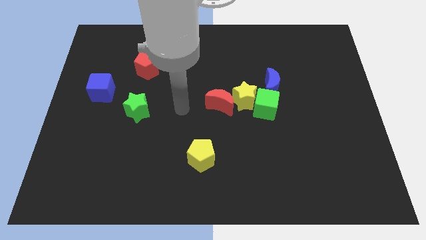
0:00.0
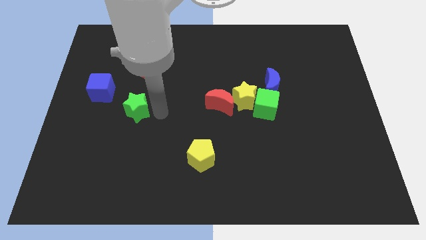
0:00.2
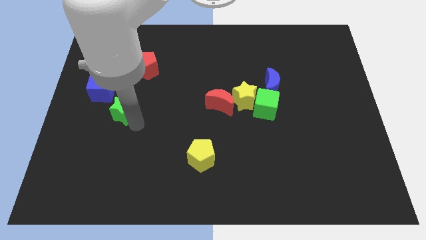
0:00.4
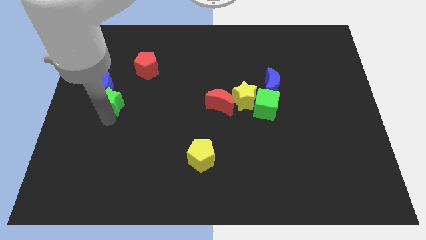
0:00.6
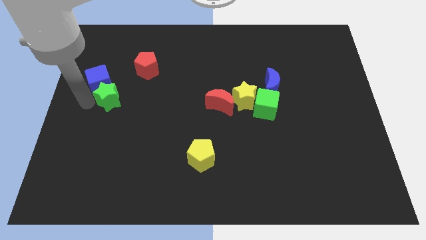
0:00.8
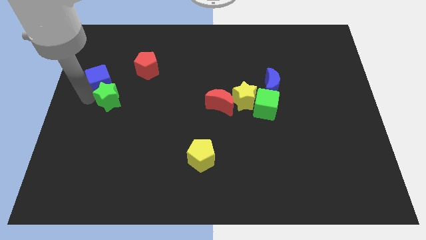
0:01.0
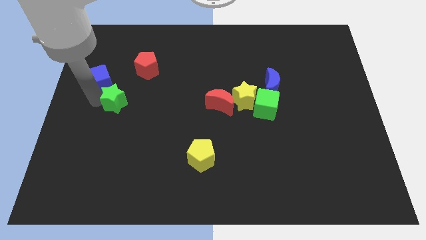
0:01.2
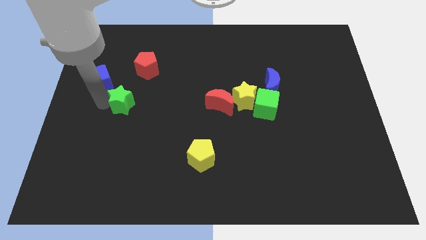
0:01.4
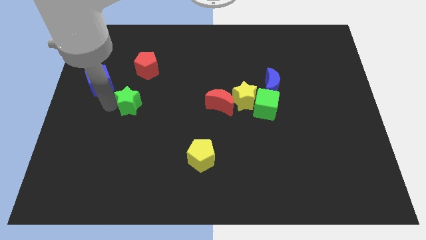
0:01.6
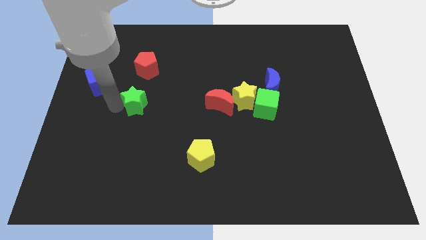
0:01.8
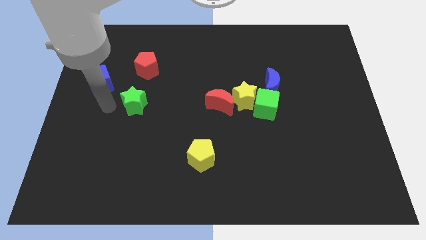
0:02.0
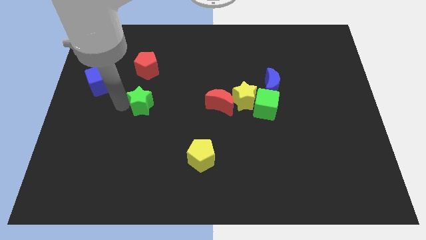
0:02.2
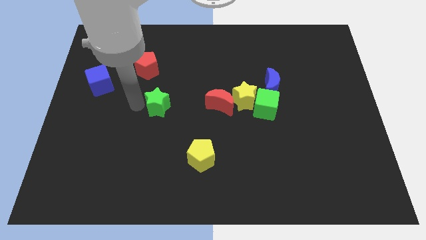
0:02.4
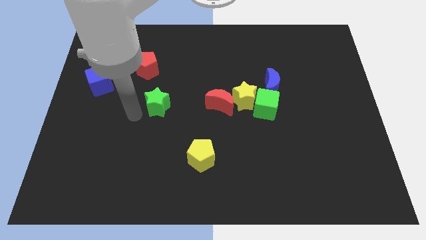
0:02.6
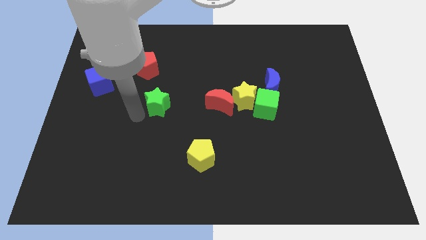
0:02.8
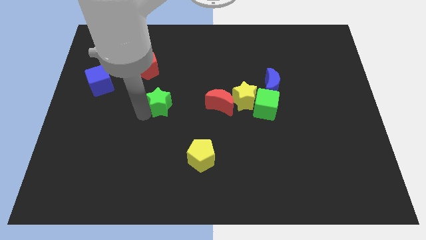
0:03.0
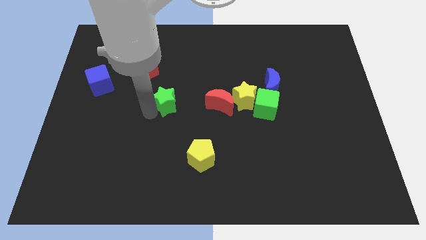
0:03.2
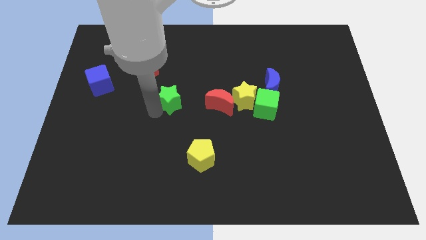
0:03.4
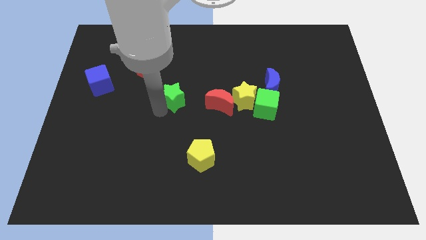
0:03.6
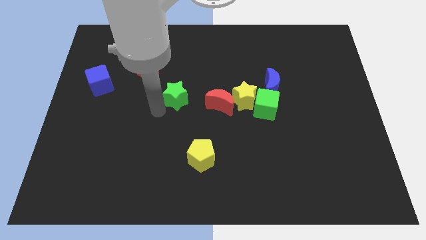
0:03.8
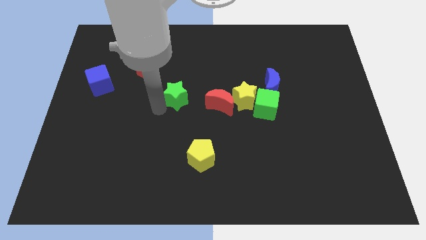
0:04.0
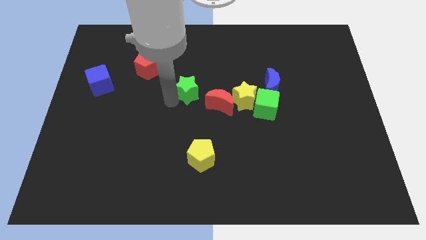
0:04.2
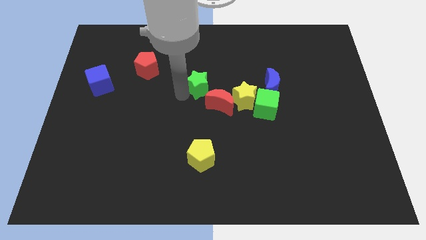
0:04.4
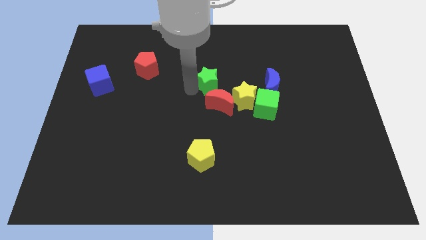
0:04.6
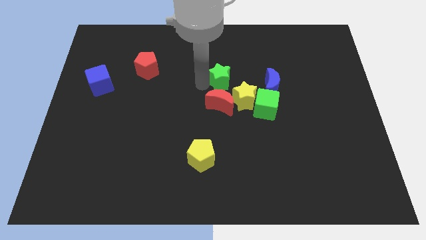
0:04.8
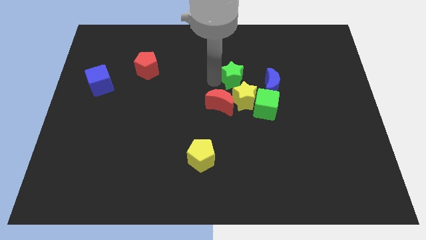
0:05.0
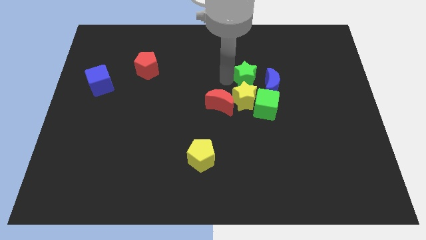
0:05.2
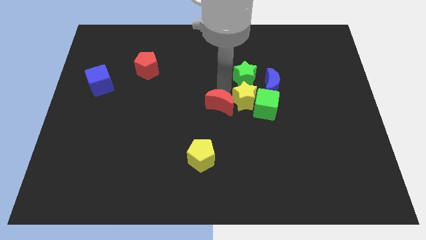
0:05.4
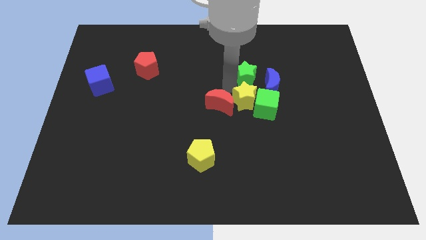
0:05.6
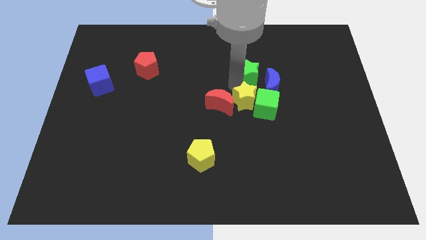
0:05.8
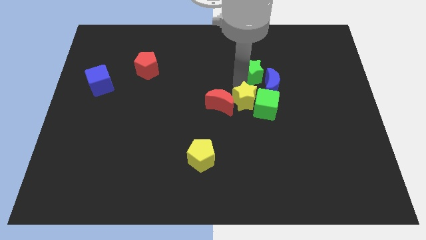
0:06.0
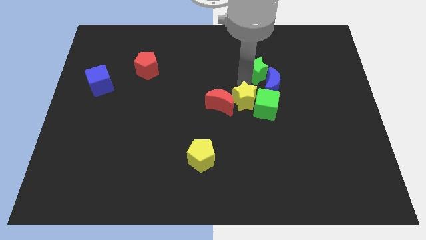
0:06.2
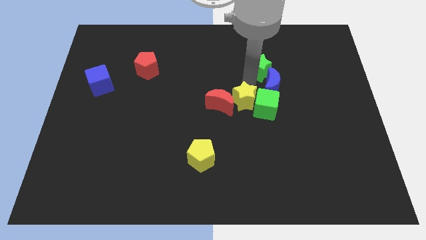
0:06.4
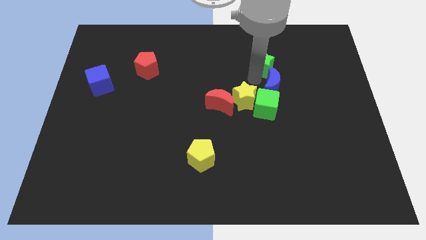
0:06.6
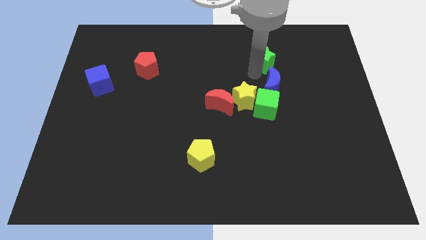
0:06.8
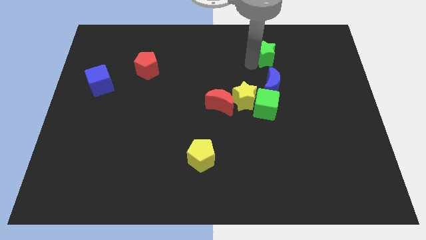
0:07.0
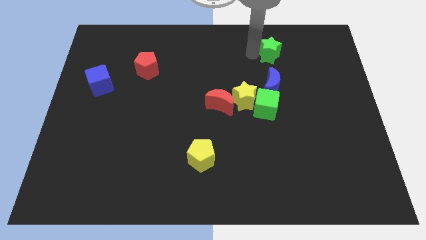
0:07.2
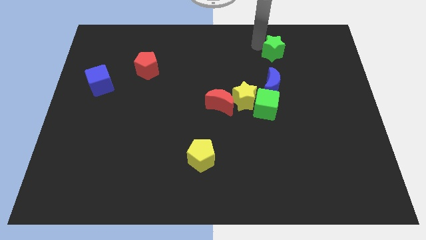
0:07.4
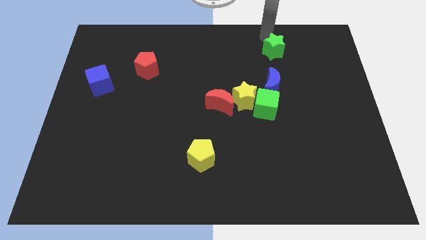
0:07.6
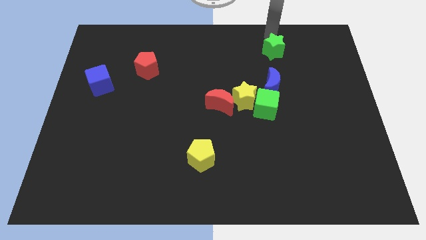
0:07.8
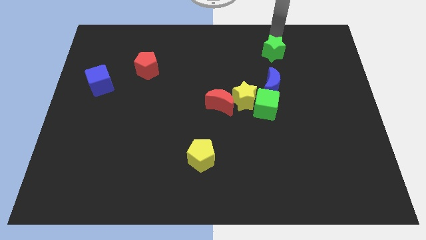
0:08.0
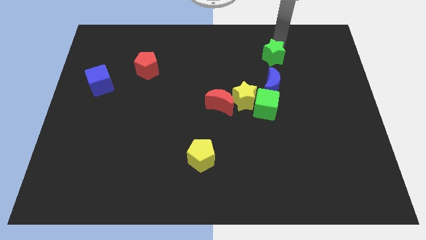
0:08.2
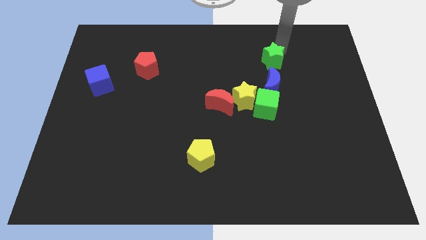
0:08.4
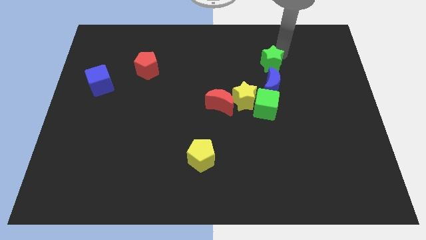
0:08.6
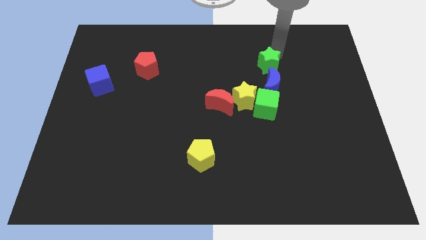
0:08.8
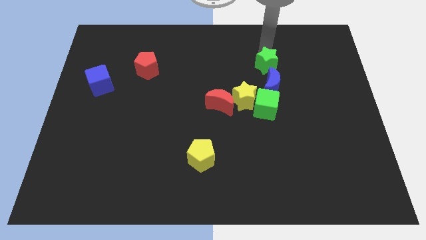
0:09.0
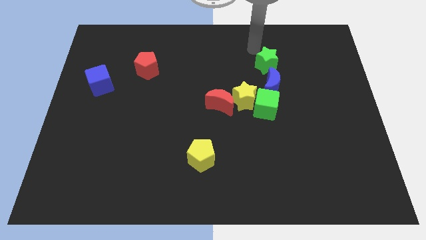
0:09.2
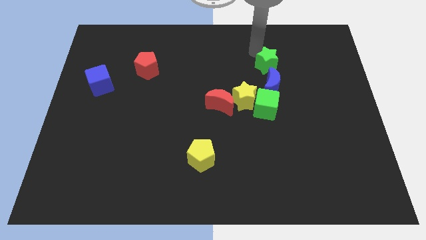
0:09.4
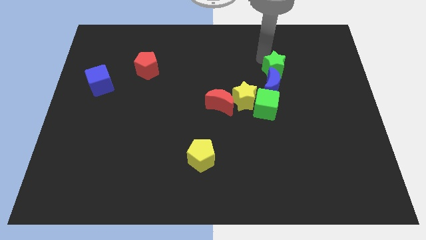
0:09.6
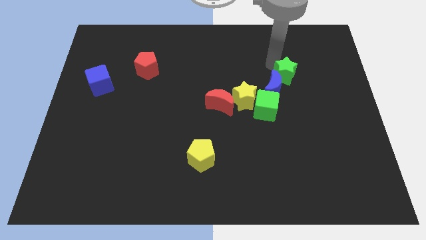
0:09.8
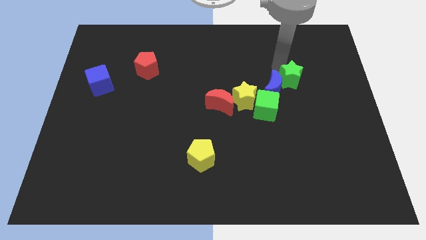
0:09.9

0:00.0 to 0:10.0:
put the green star to the top right of the green cube

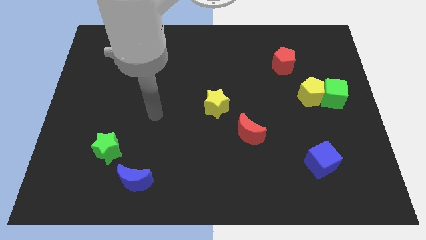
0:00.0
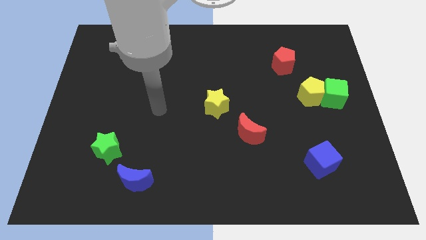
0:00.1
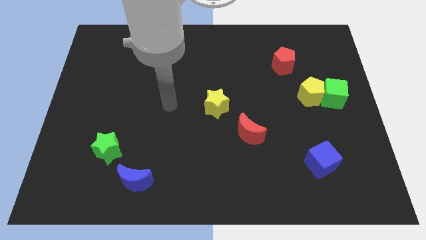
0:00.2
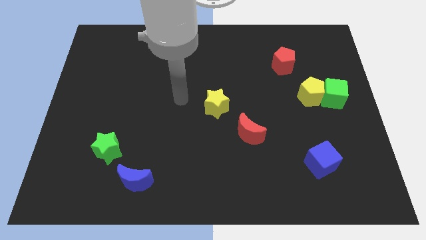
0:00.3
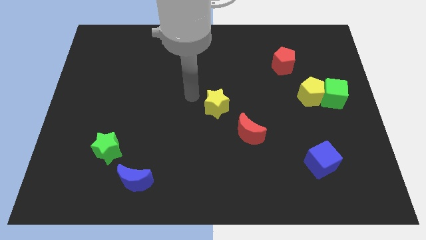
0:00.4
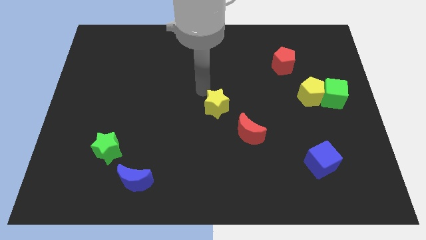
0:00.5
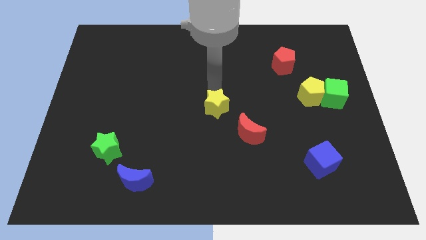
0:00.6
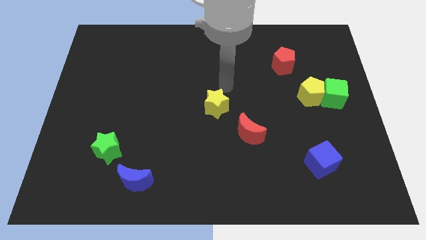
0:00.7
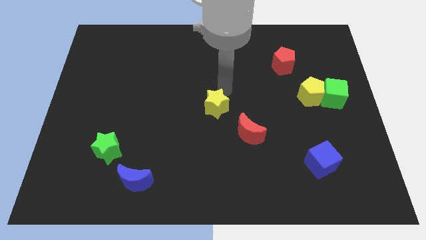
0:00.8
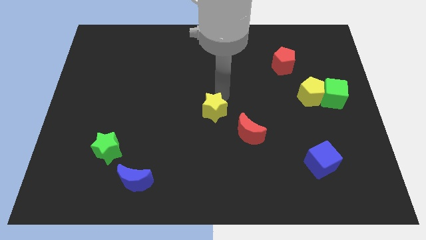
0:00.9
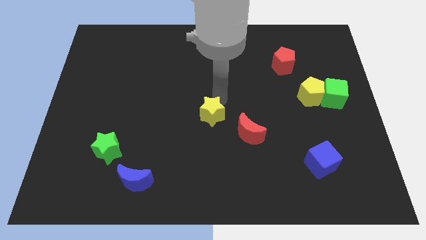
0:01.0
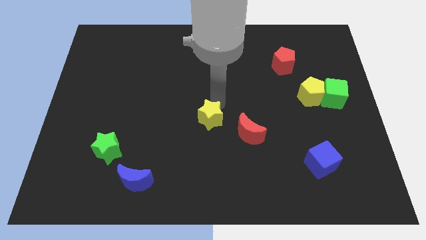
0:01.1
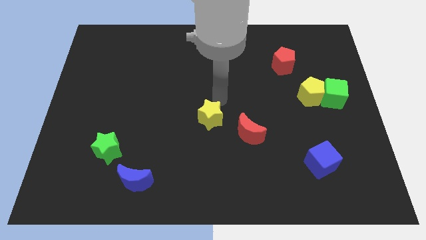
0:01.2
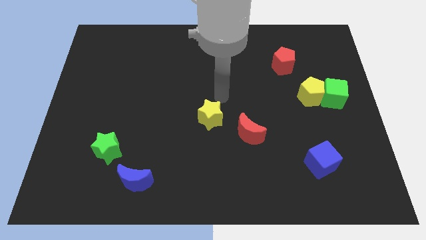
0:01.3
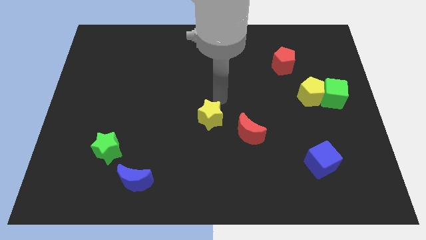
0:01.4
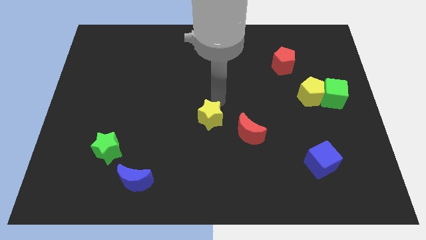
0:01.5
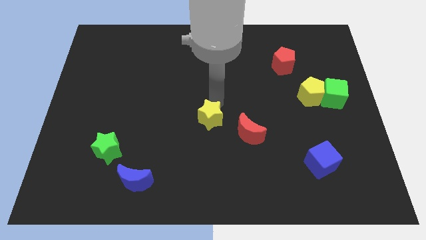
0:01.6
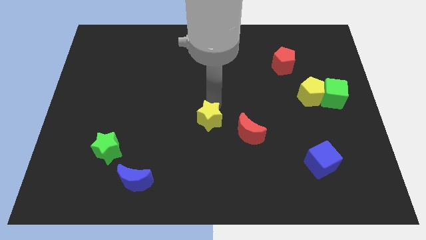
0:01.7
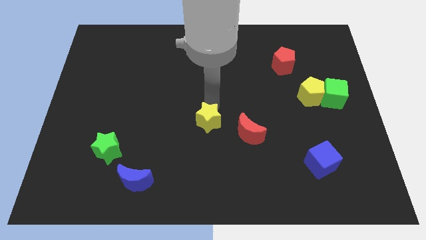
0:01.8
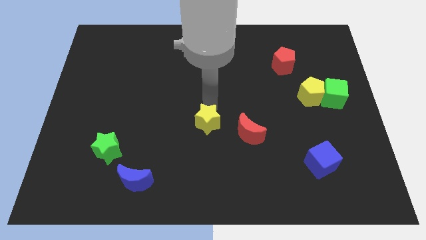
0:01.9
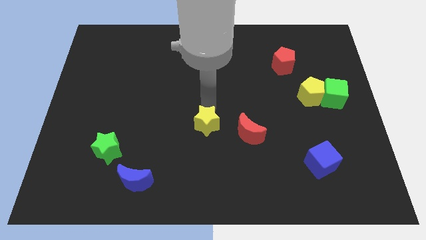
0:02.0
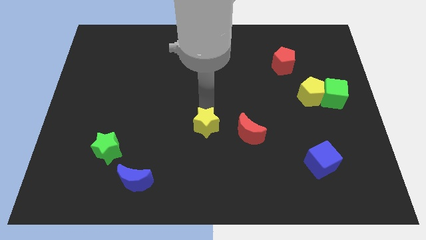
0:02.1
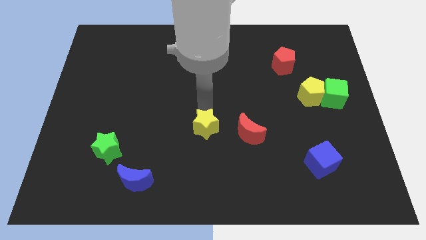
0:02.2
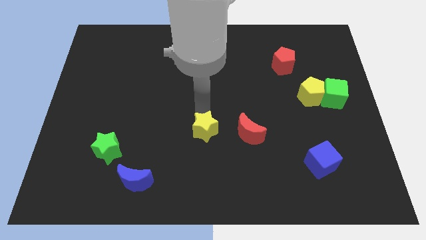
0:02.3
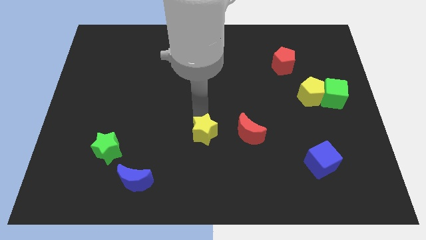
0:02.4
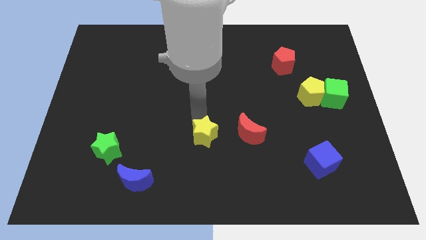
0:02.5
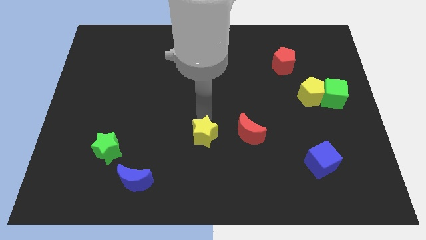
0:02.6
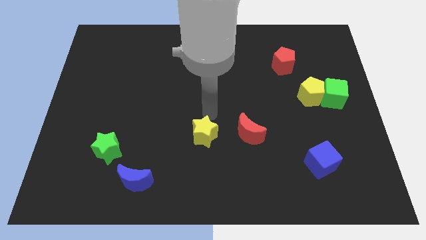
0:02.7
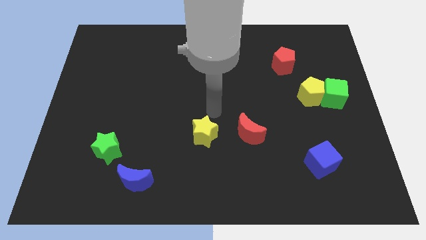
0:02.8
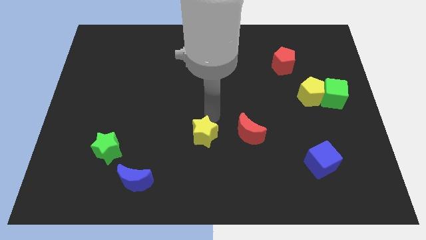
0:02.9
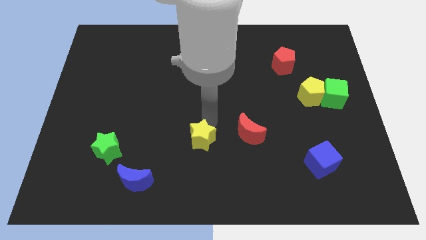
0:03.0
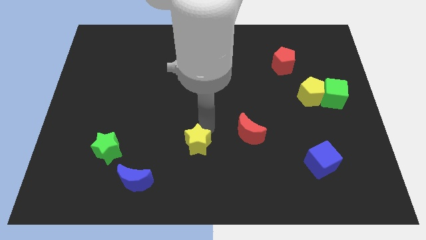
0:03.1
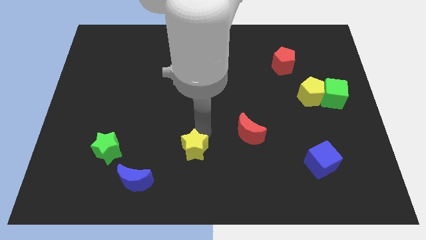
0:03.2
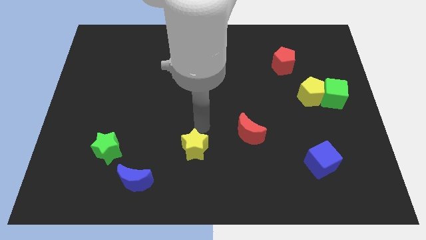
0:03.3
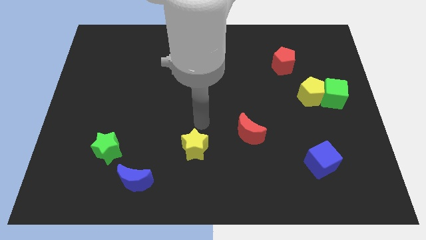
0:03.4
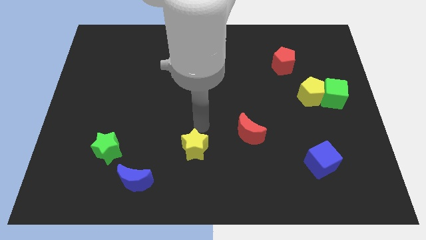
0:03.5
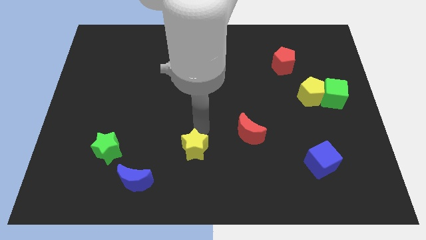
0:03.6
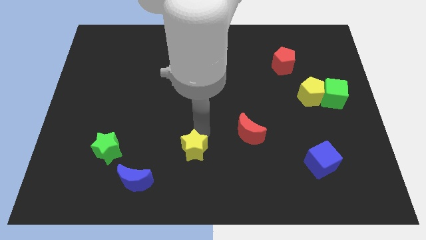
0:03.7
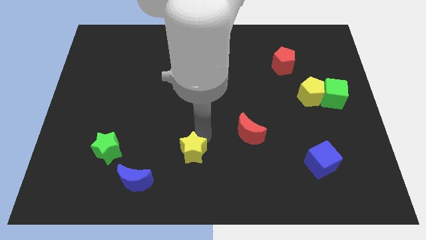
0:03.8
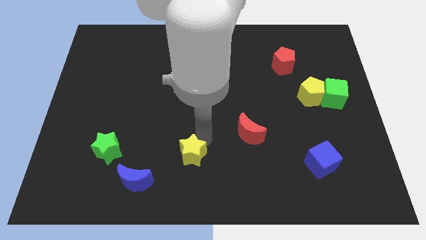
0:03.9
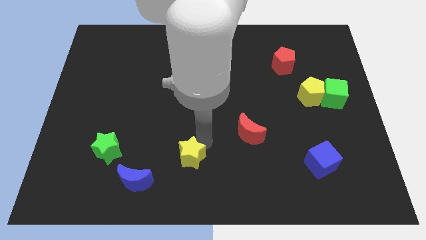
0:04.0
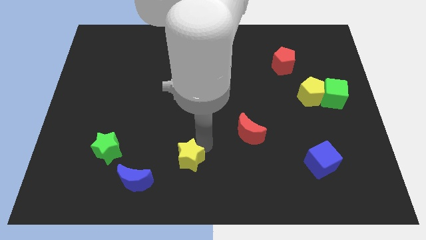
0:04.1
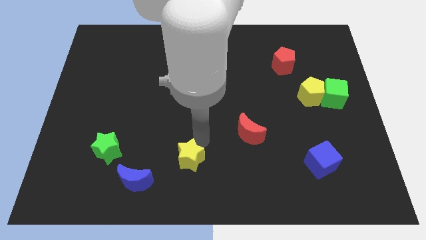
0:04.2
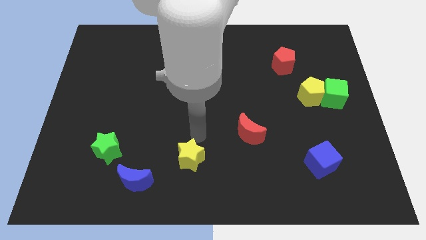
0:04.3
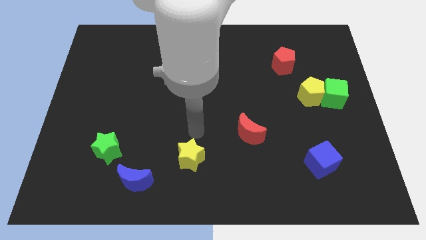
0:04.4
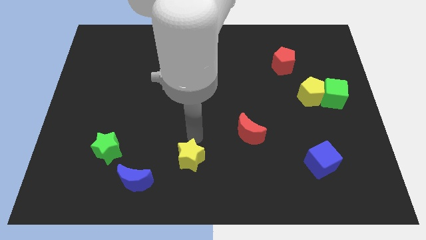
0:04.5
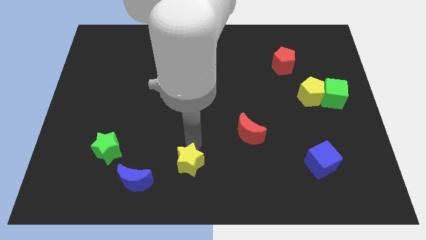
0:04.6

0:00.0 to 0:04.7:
push the yellow star just right of the blue moon
